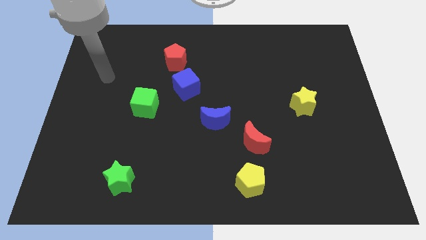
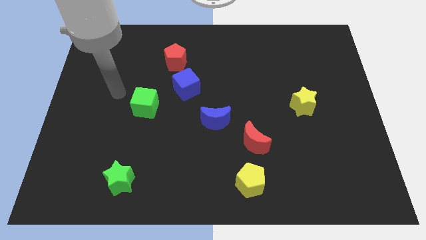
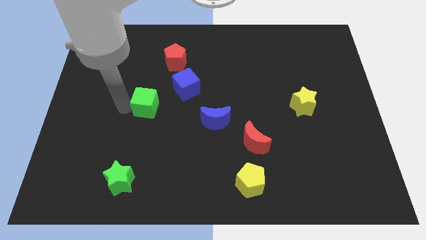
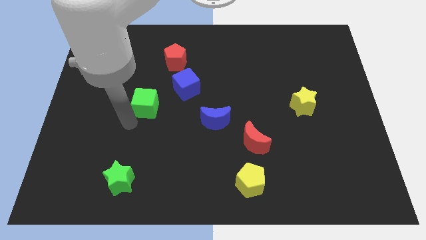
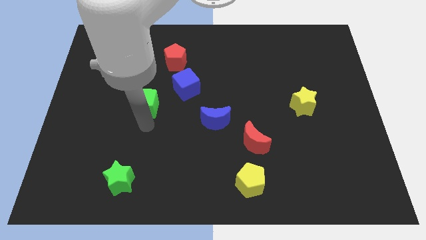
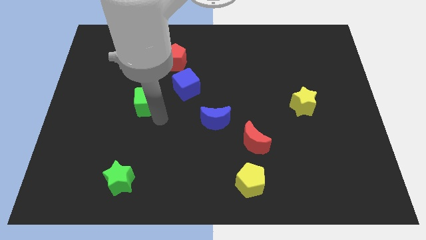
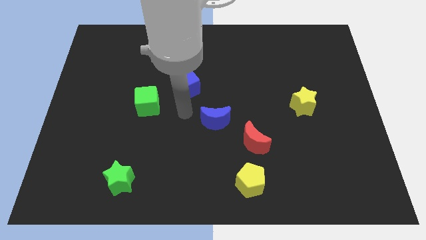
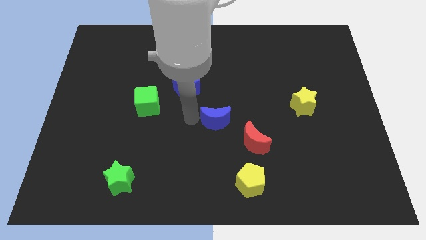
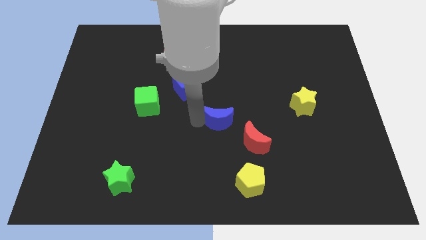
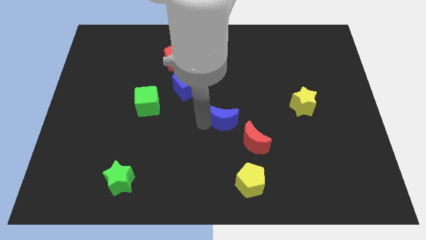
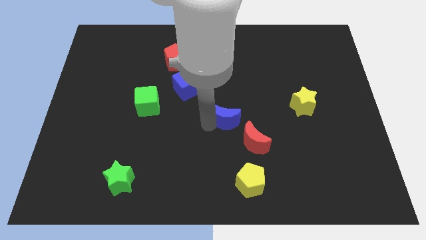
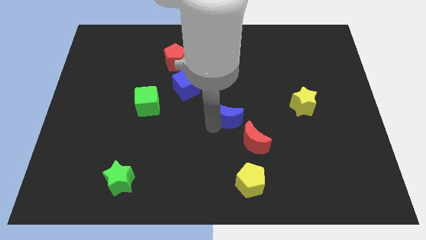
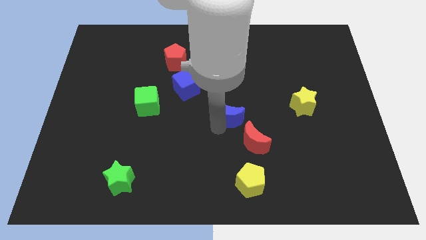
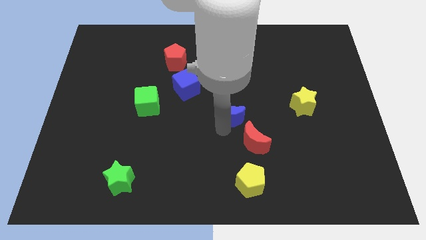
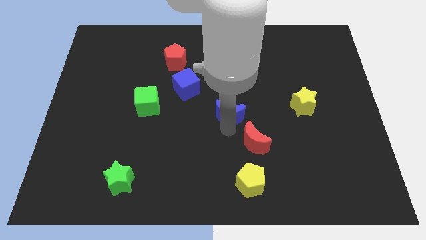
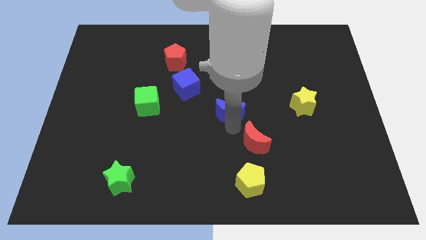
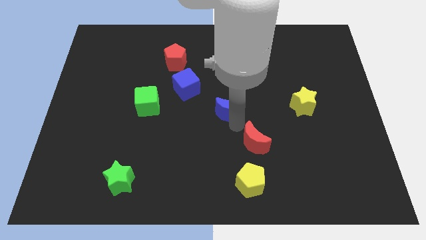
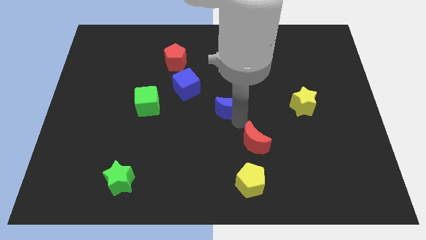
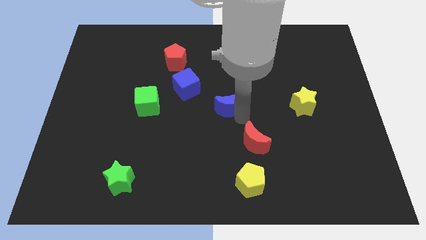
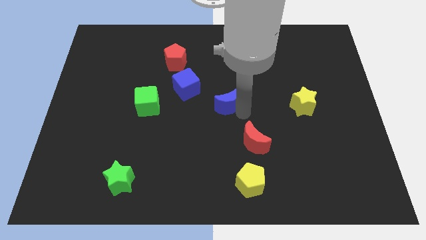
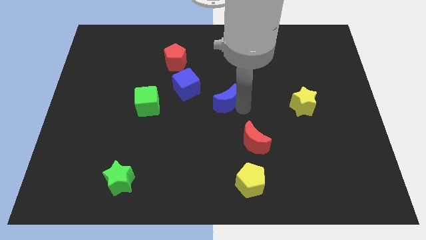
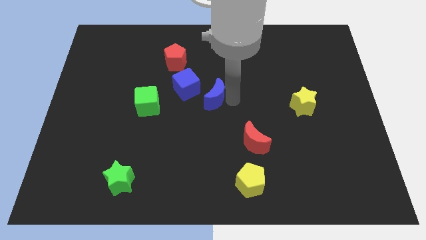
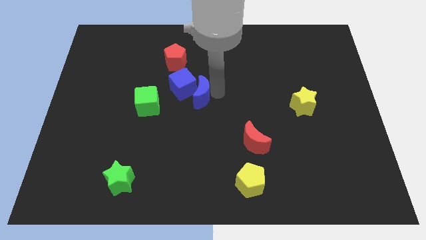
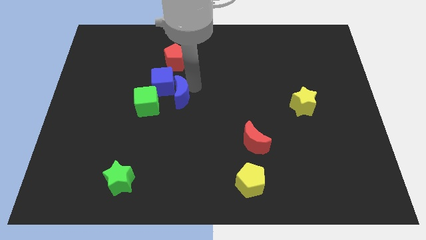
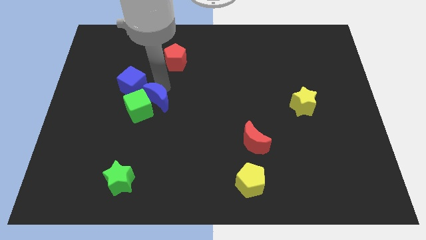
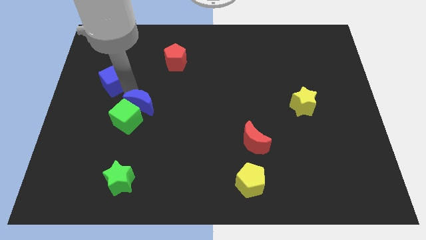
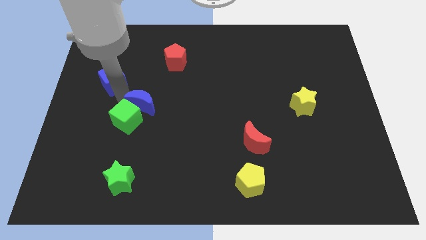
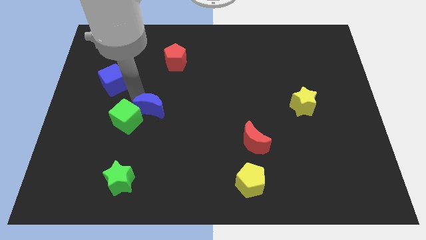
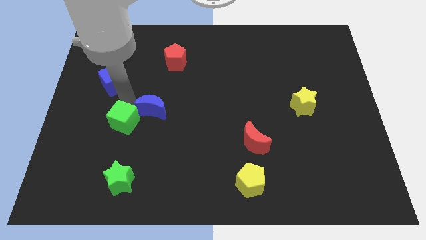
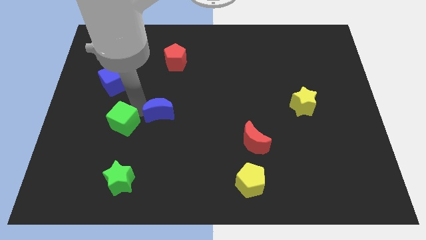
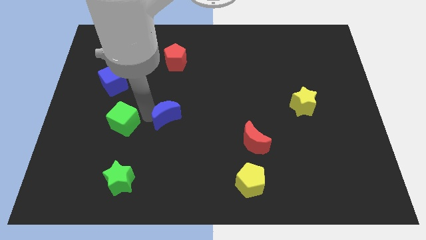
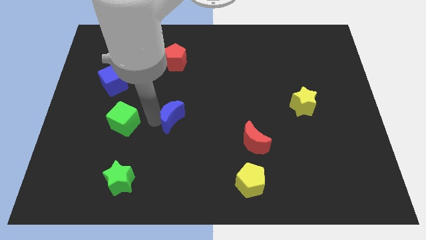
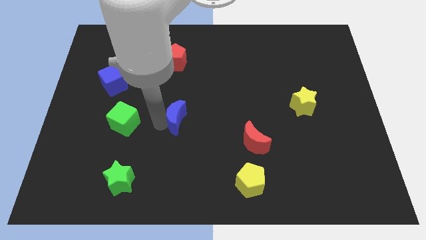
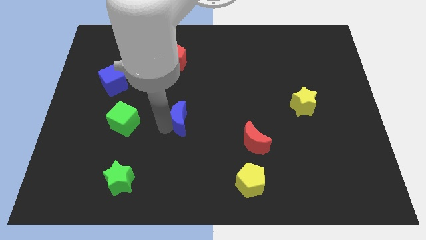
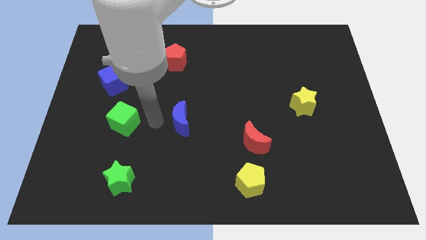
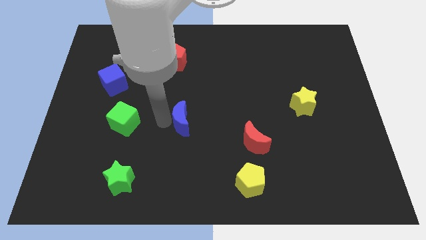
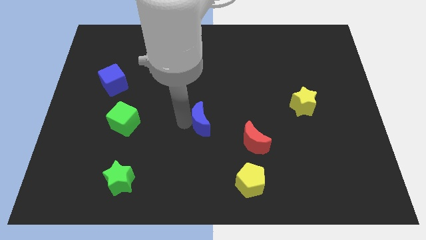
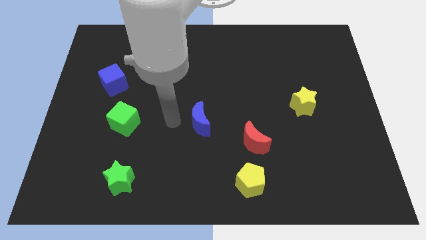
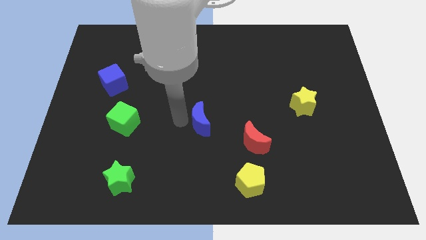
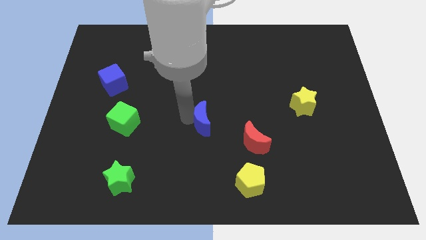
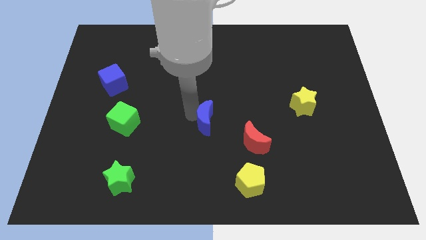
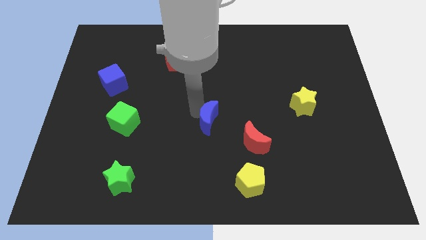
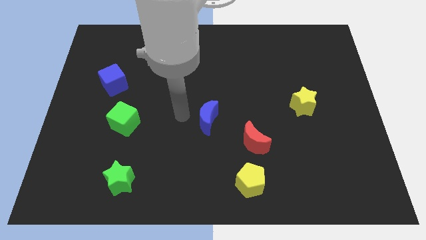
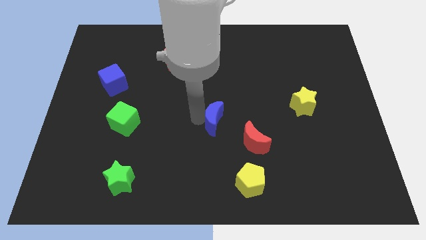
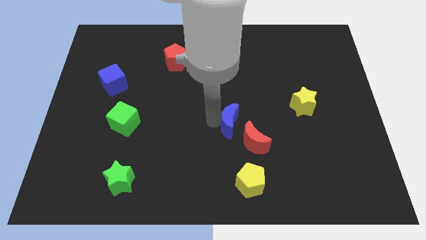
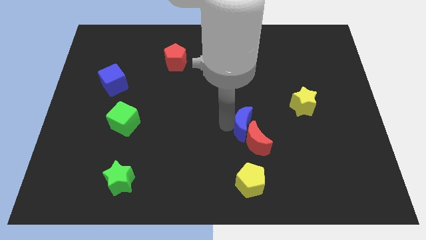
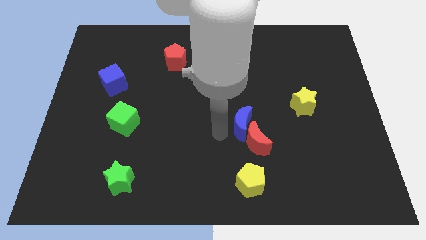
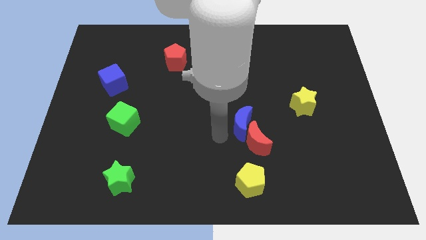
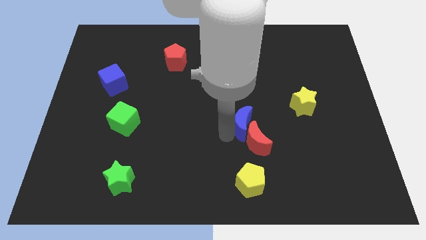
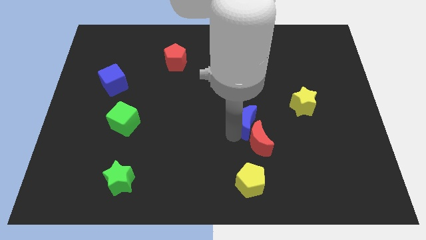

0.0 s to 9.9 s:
slightly move the blue moon right

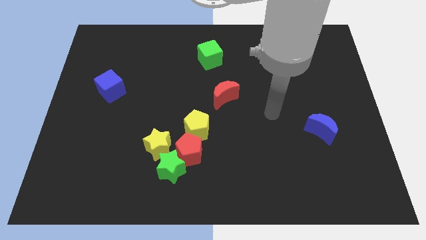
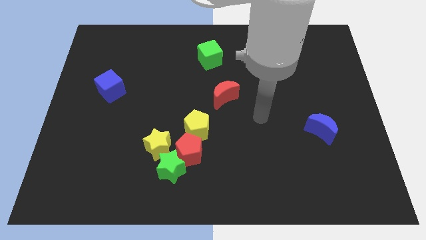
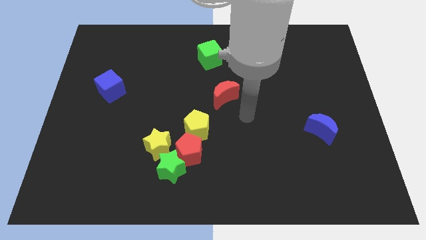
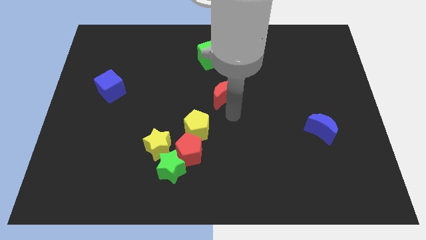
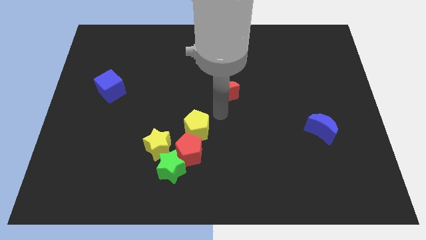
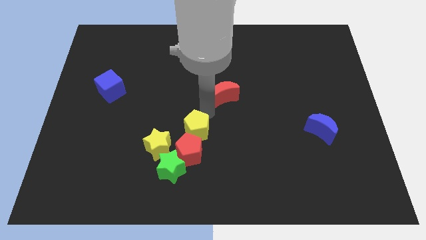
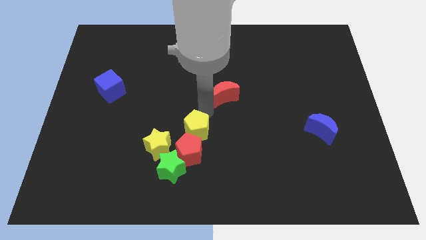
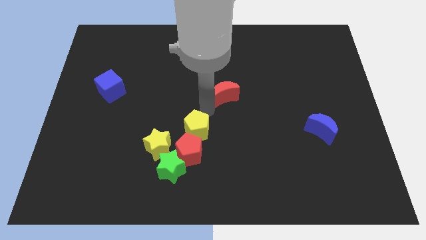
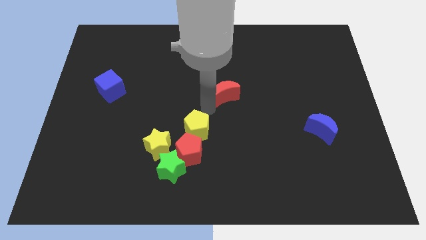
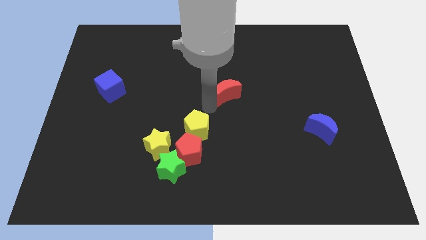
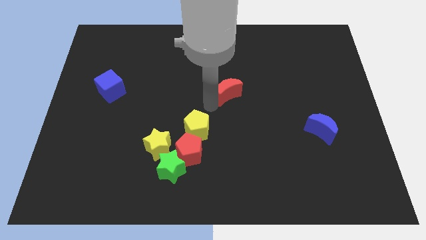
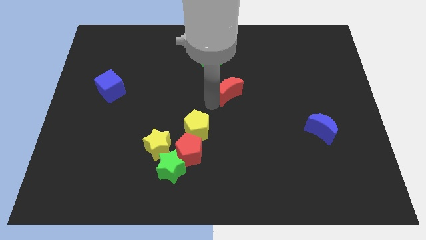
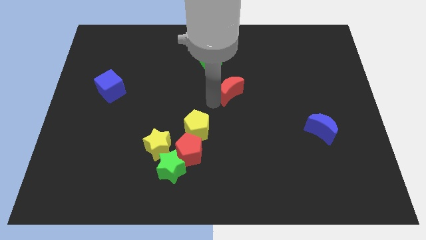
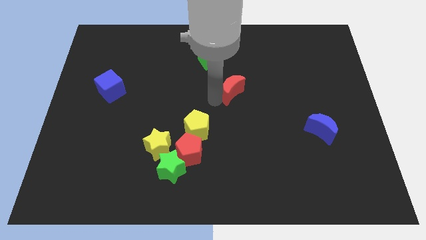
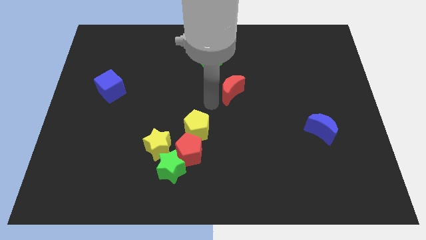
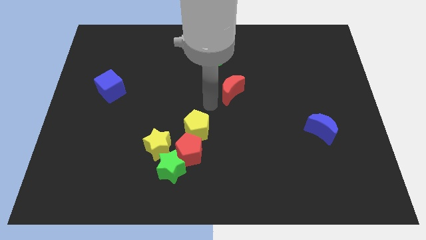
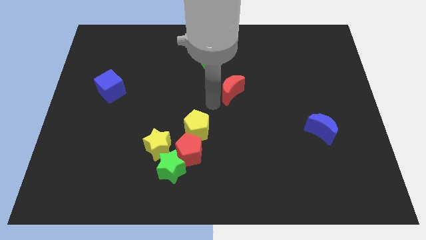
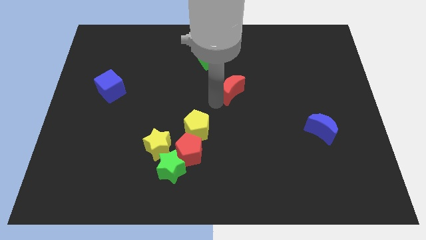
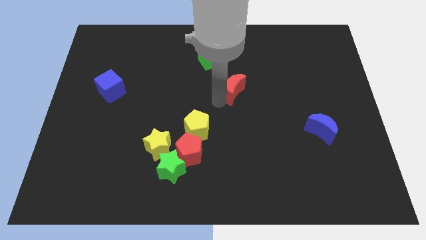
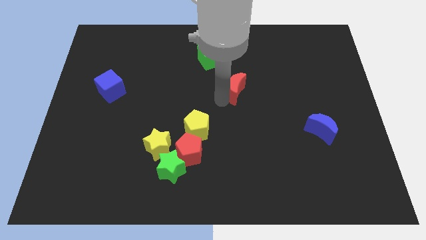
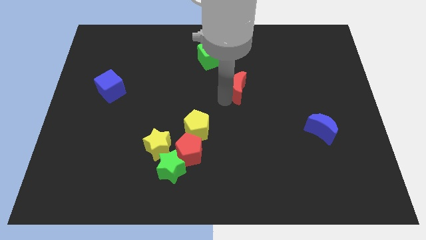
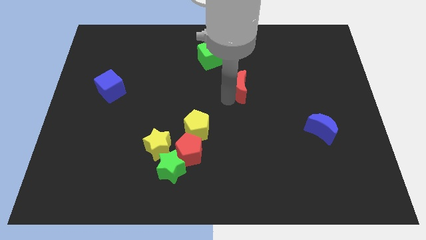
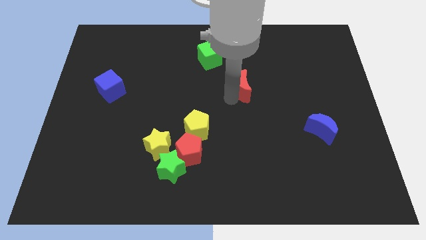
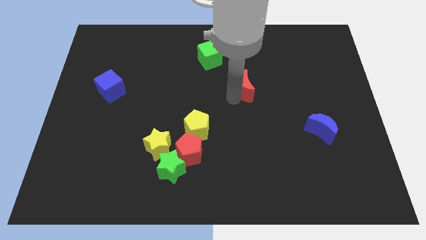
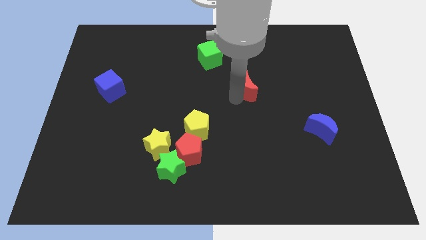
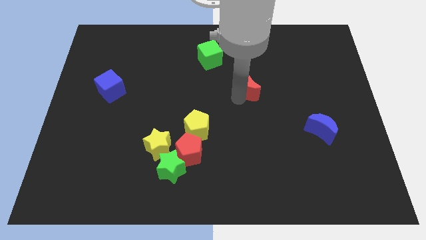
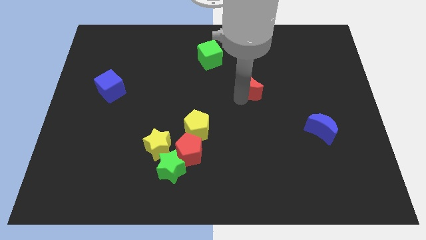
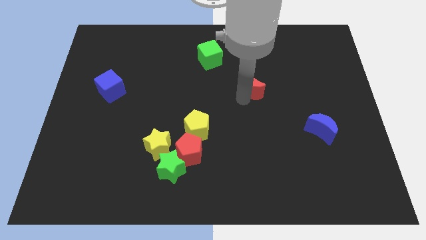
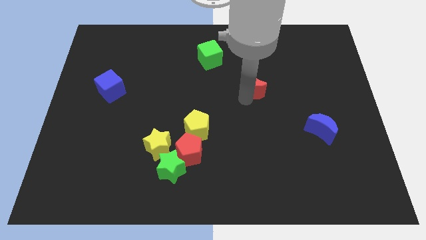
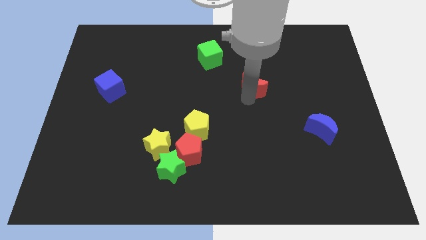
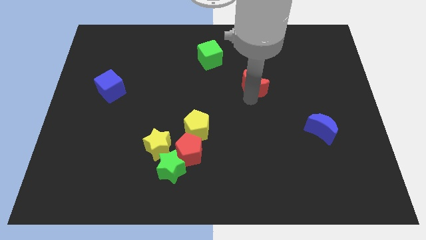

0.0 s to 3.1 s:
slide the red moon diagonally up and right a little

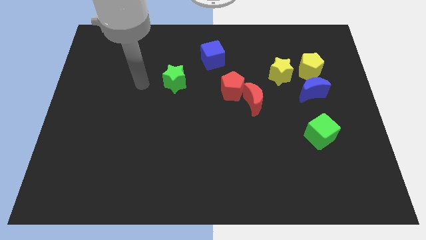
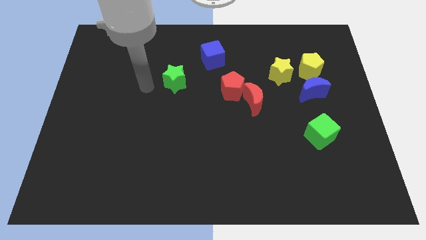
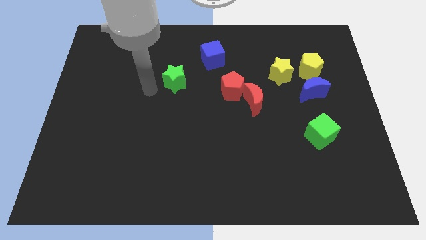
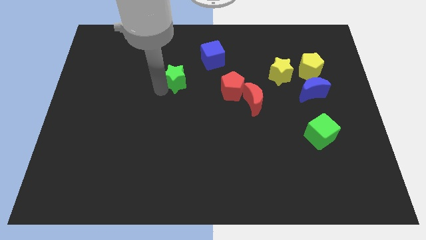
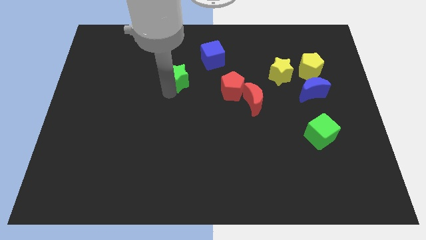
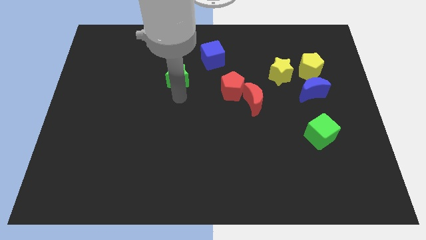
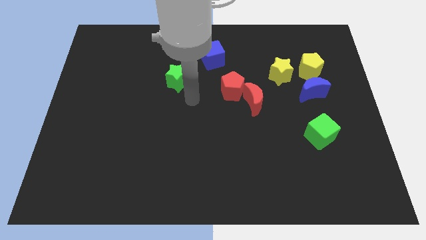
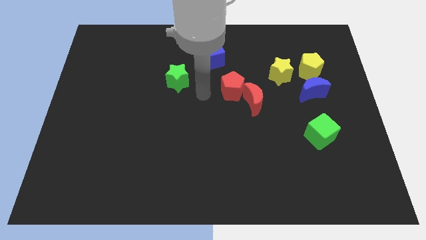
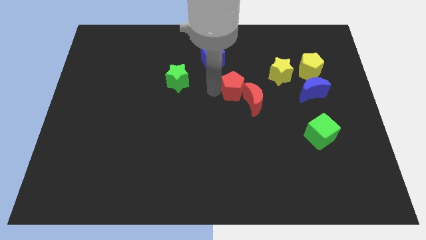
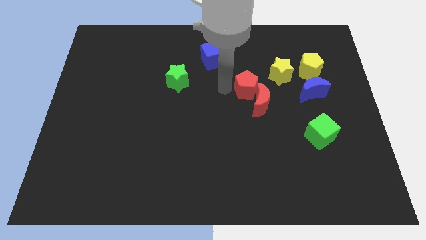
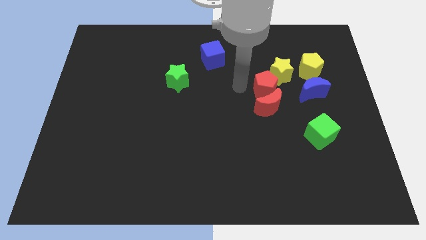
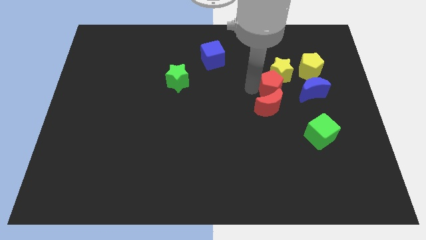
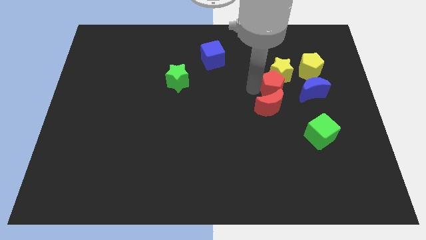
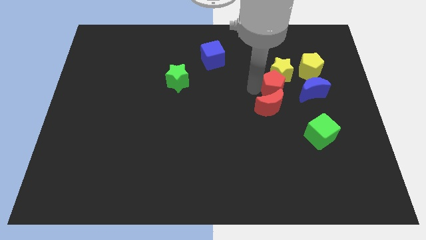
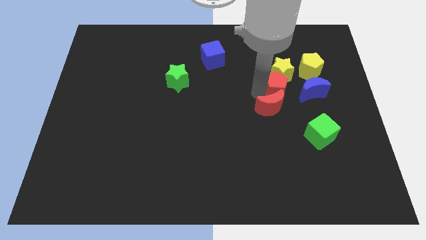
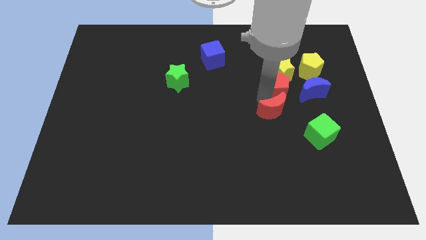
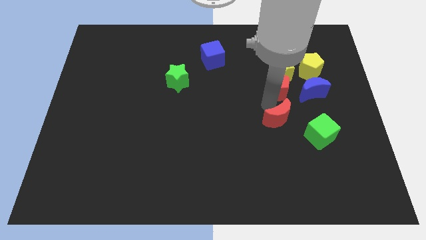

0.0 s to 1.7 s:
push the red moon down and to the right somewhat
